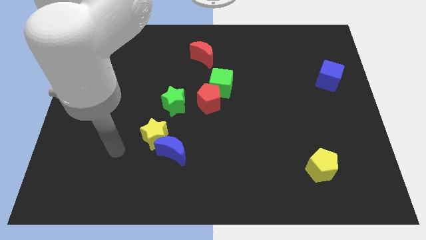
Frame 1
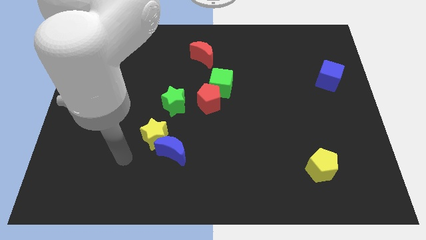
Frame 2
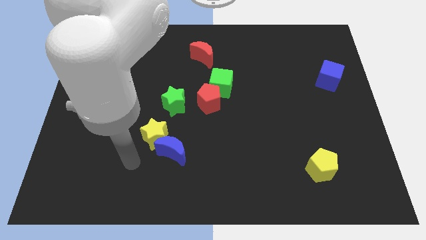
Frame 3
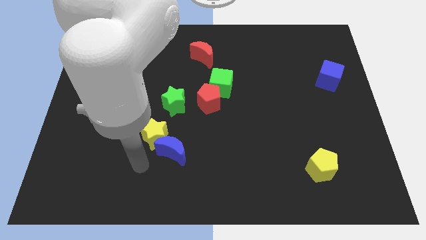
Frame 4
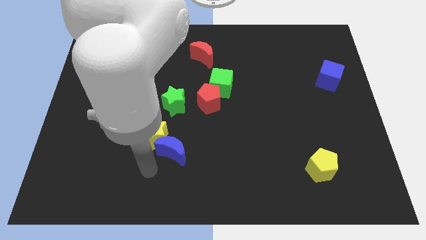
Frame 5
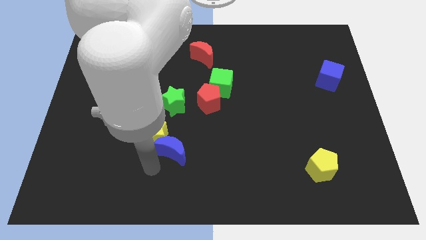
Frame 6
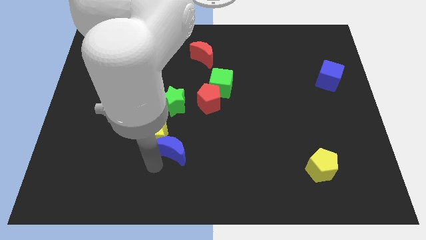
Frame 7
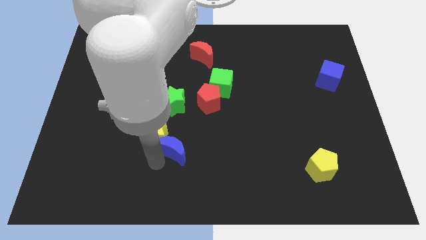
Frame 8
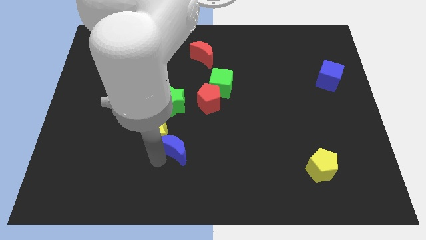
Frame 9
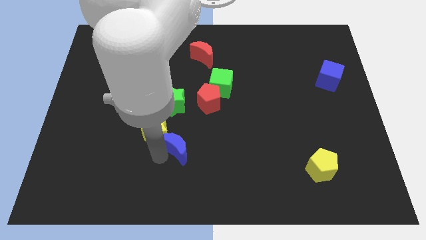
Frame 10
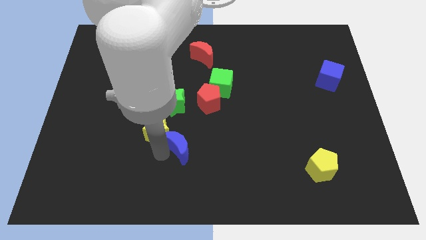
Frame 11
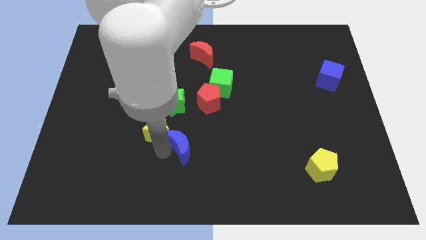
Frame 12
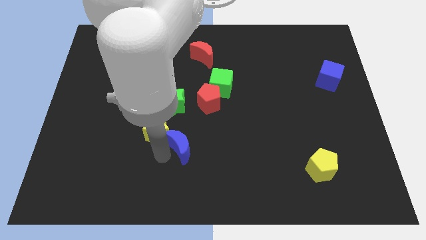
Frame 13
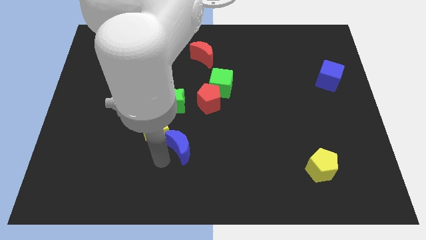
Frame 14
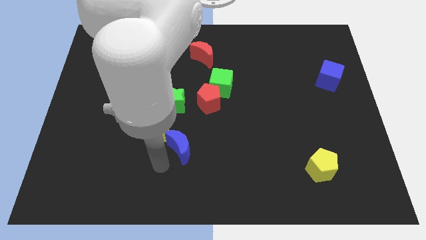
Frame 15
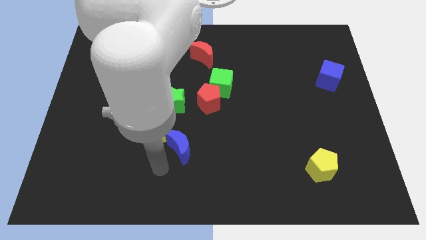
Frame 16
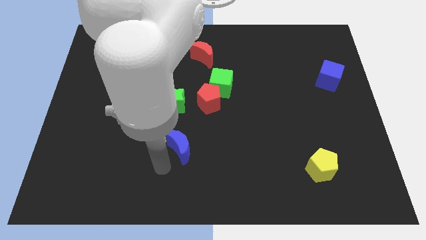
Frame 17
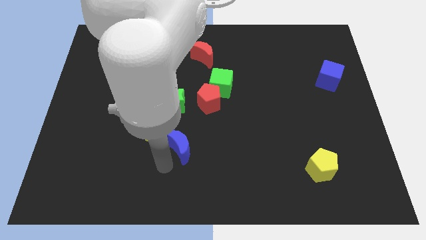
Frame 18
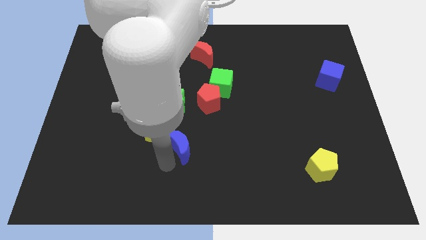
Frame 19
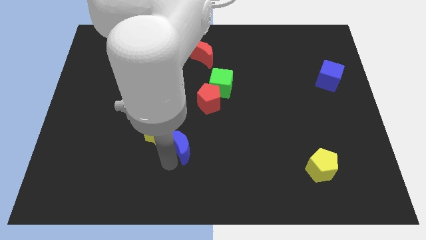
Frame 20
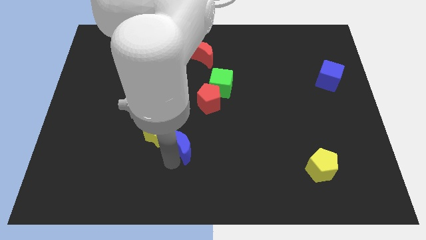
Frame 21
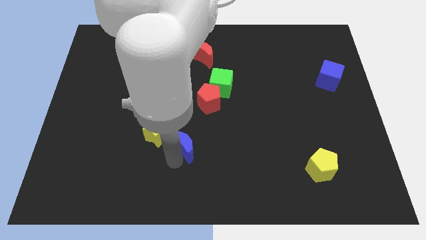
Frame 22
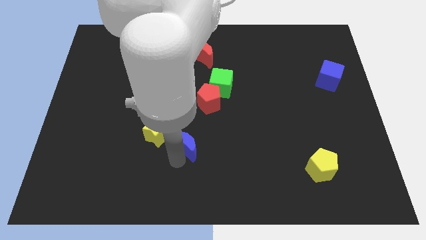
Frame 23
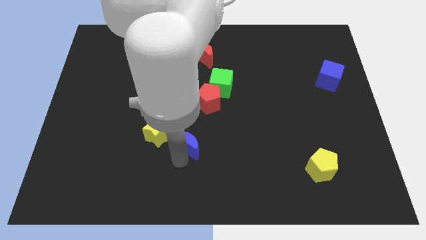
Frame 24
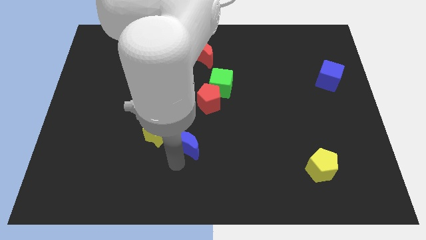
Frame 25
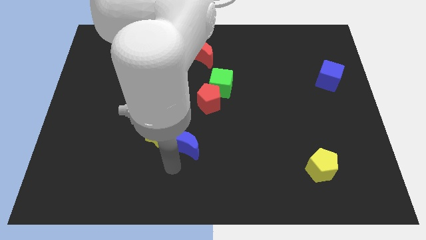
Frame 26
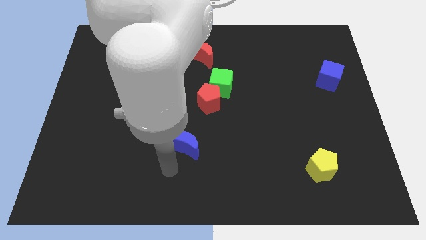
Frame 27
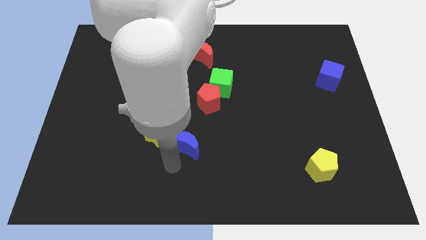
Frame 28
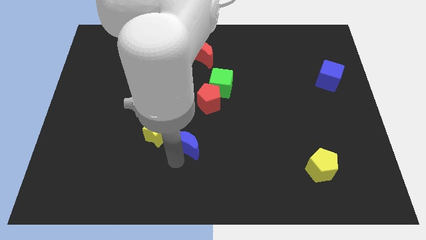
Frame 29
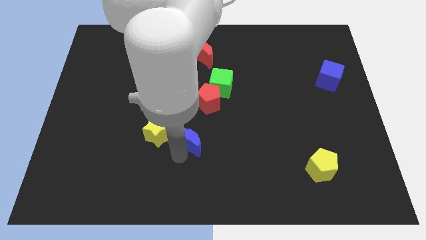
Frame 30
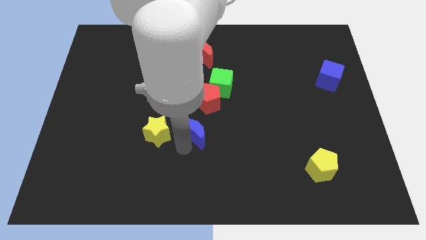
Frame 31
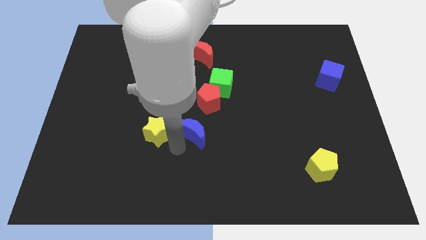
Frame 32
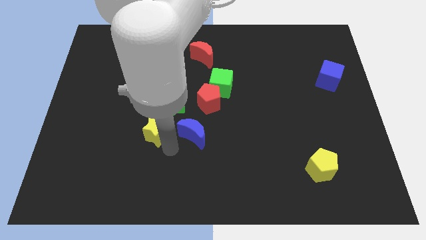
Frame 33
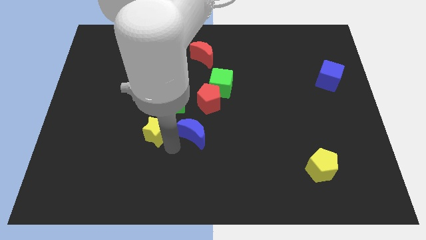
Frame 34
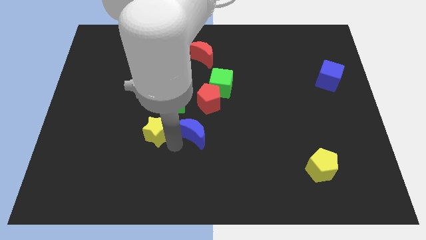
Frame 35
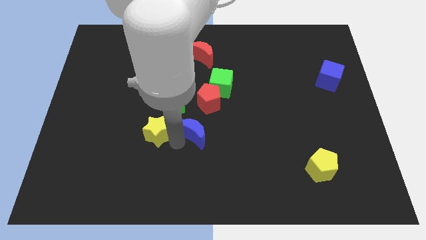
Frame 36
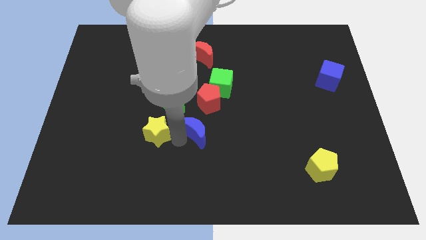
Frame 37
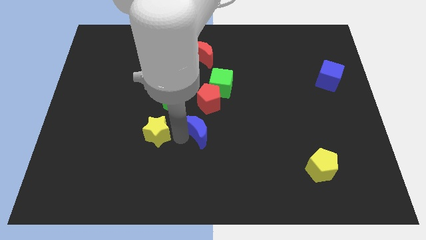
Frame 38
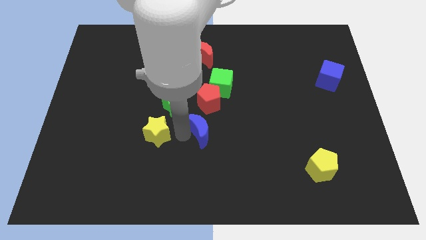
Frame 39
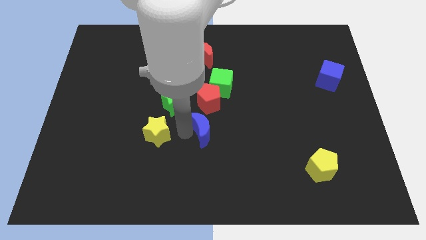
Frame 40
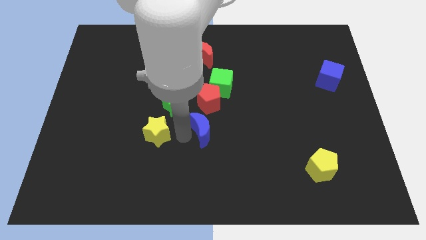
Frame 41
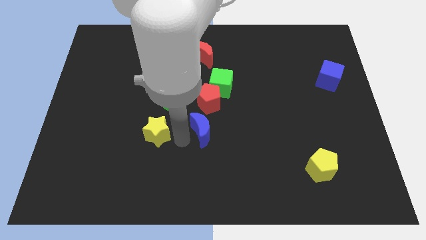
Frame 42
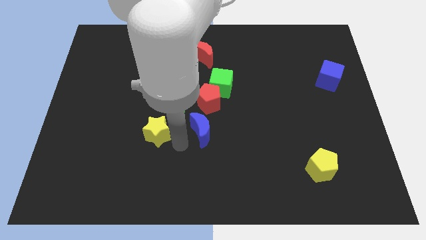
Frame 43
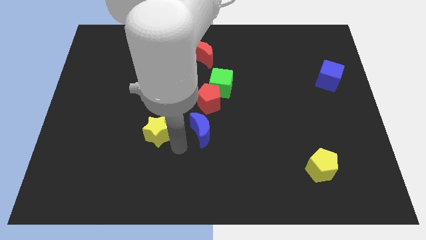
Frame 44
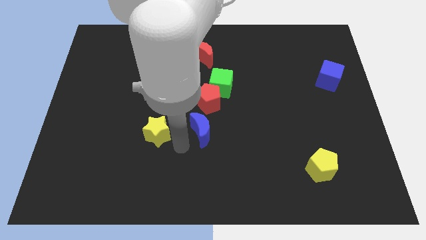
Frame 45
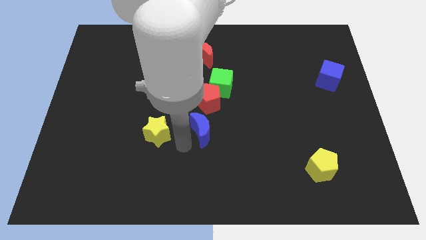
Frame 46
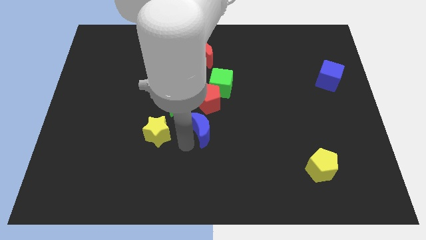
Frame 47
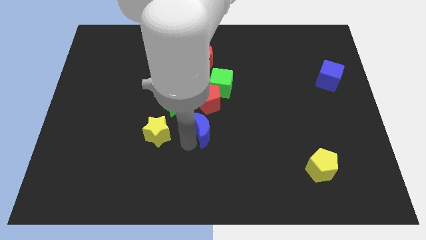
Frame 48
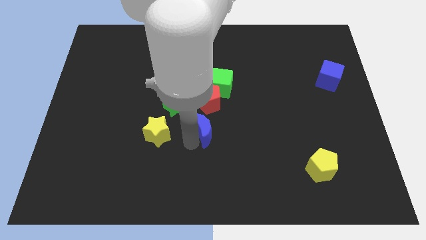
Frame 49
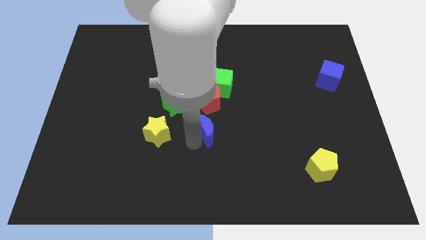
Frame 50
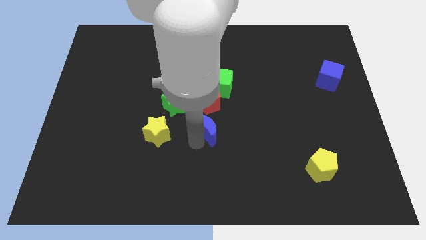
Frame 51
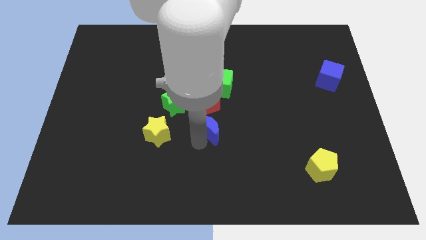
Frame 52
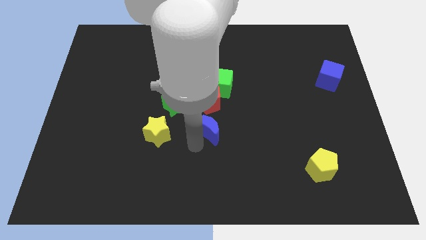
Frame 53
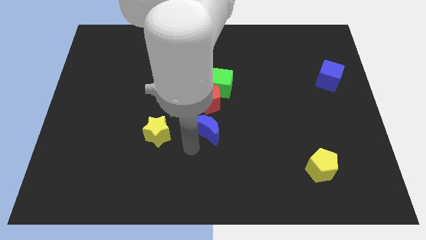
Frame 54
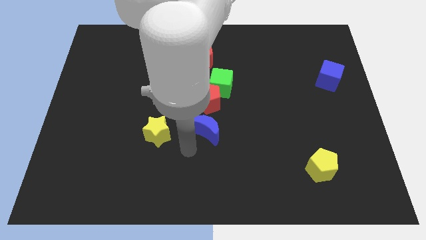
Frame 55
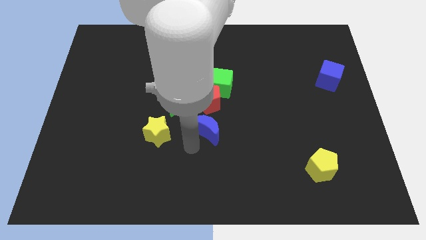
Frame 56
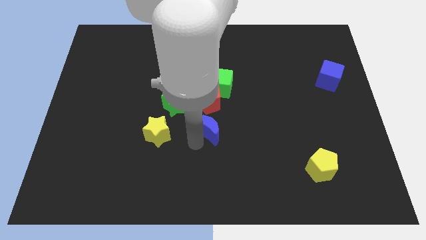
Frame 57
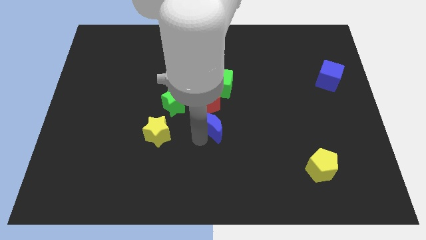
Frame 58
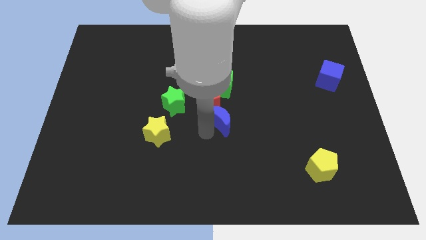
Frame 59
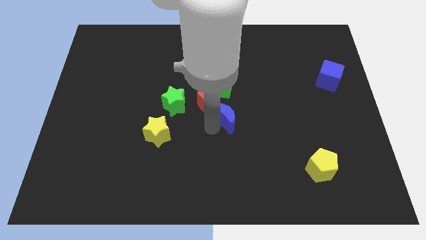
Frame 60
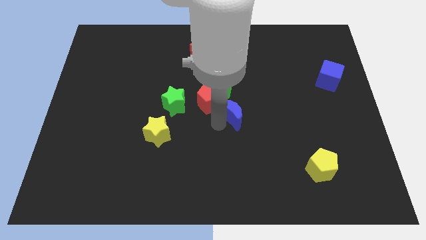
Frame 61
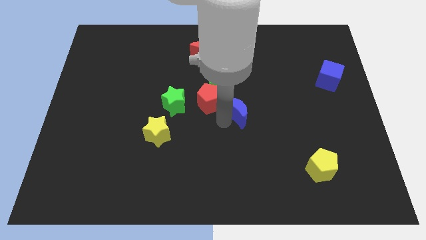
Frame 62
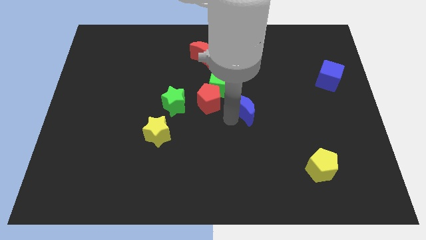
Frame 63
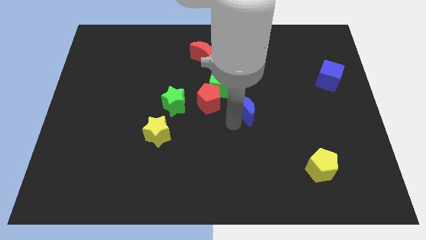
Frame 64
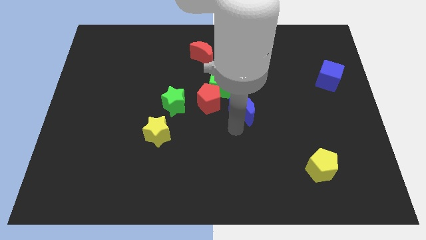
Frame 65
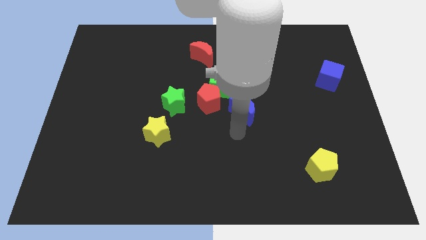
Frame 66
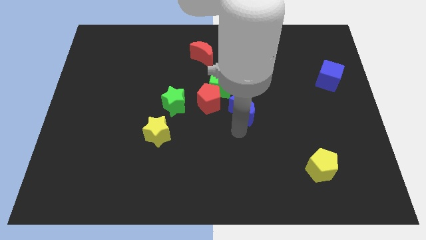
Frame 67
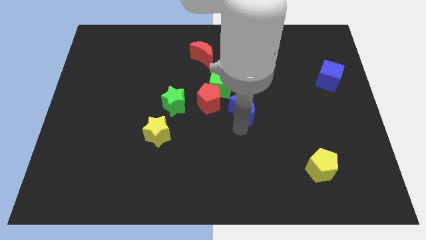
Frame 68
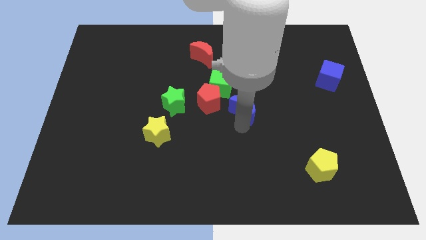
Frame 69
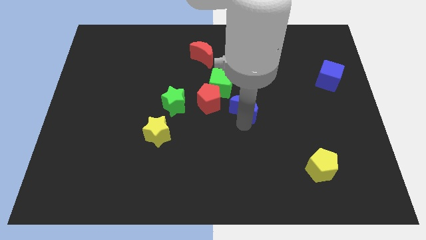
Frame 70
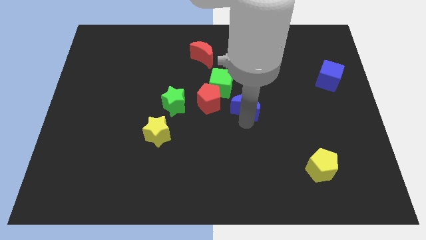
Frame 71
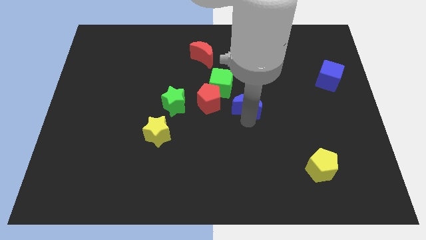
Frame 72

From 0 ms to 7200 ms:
slide the blue moon upwards and right

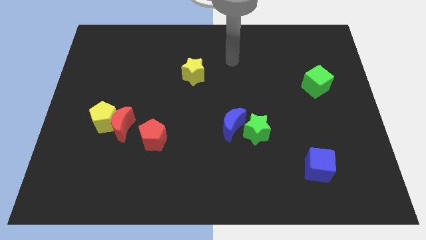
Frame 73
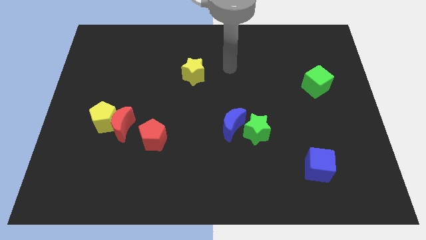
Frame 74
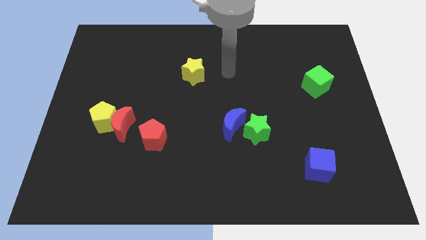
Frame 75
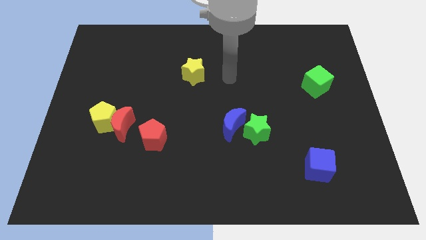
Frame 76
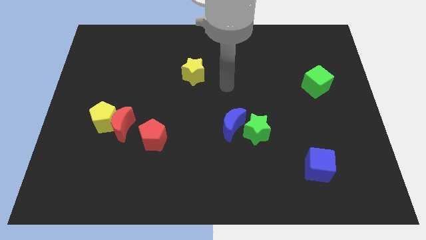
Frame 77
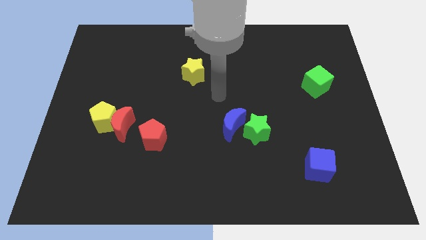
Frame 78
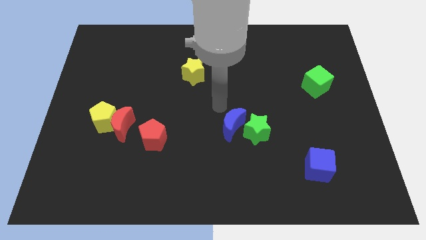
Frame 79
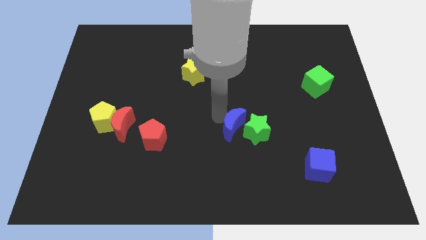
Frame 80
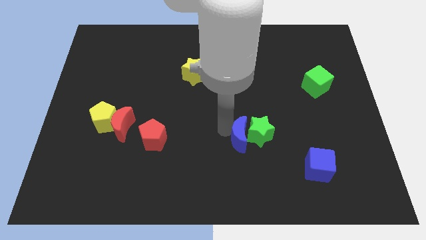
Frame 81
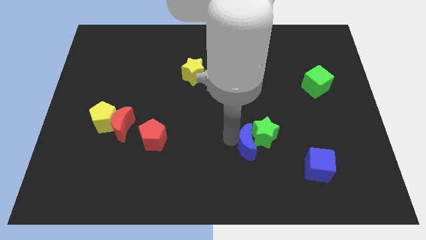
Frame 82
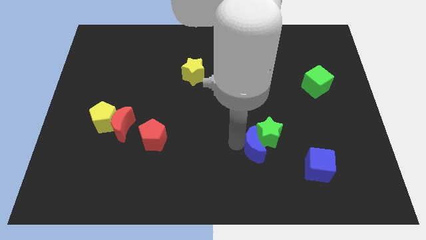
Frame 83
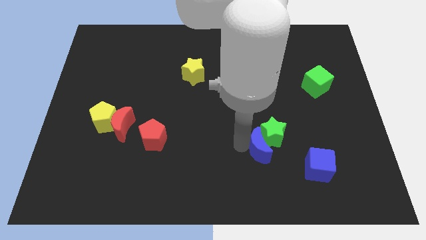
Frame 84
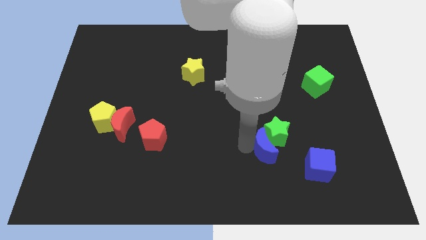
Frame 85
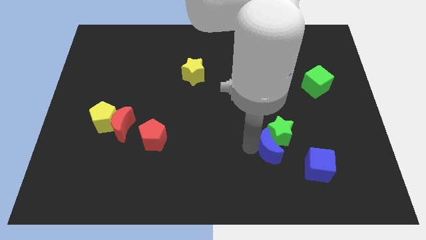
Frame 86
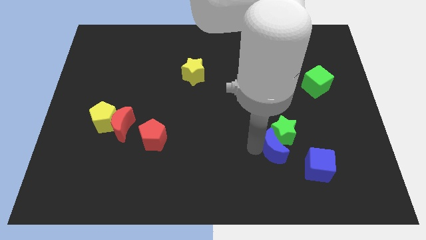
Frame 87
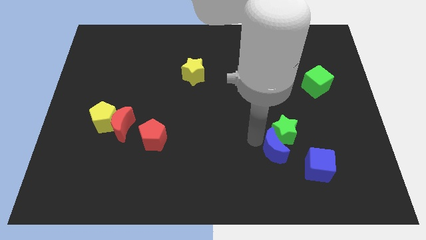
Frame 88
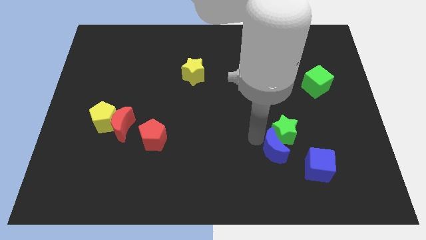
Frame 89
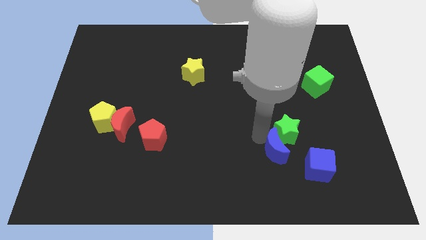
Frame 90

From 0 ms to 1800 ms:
slide the green star a little right
